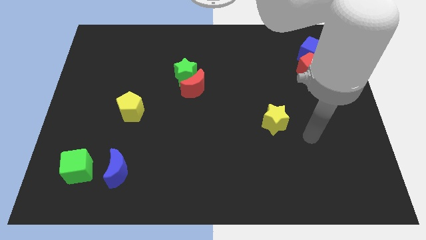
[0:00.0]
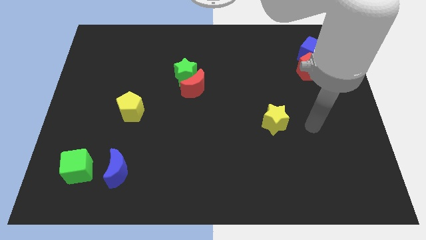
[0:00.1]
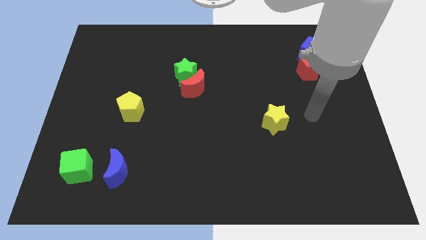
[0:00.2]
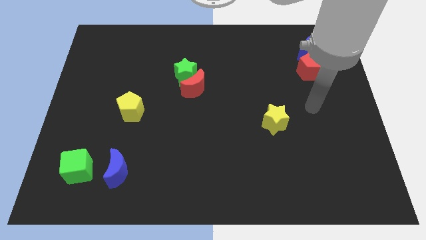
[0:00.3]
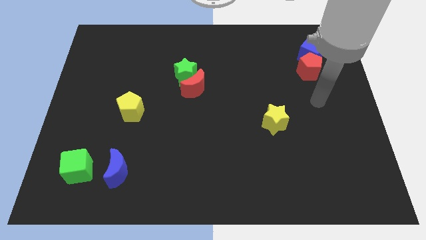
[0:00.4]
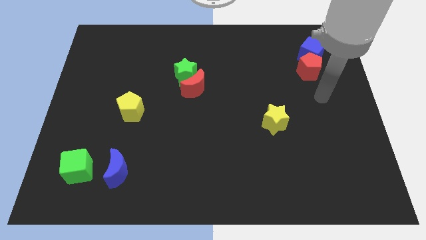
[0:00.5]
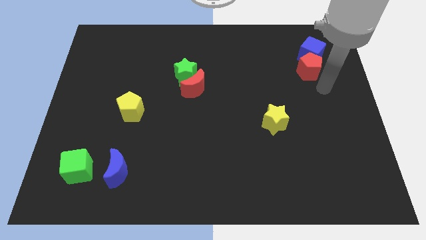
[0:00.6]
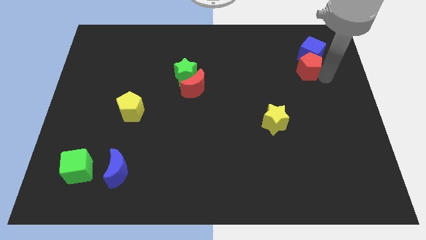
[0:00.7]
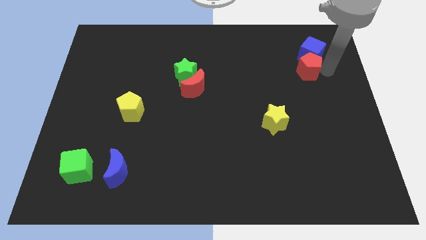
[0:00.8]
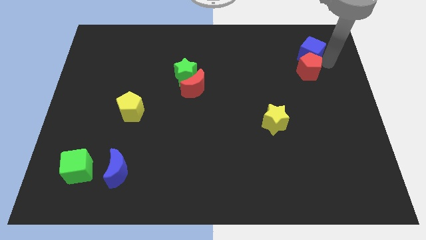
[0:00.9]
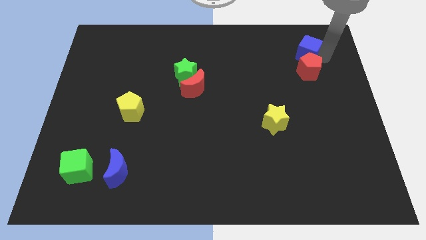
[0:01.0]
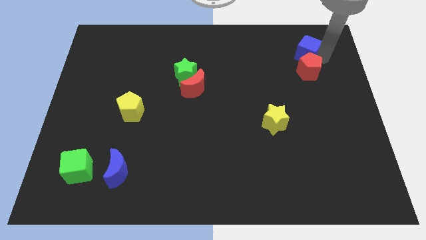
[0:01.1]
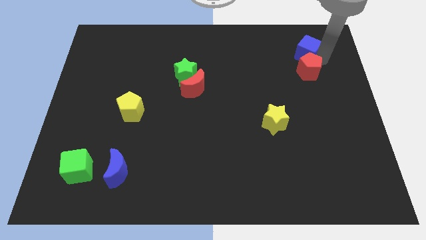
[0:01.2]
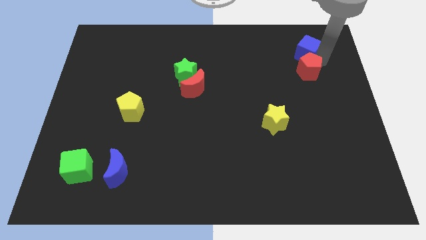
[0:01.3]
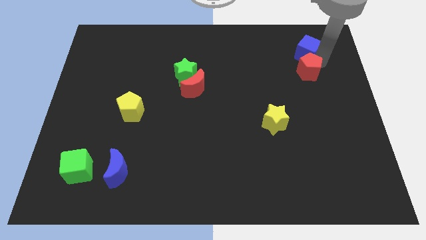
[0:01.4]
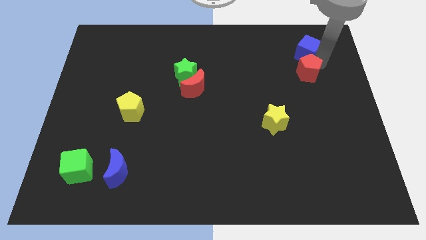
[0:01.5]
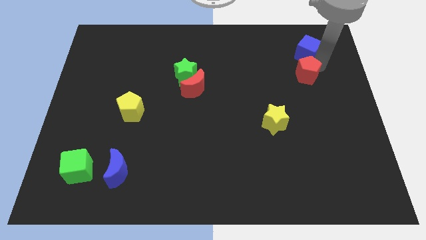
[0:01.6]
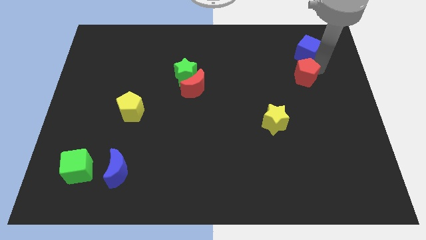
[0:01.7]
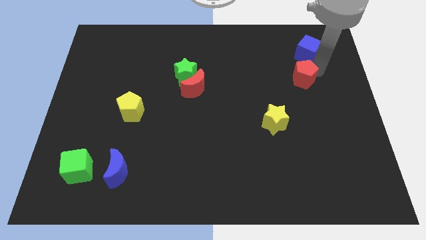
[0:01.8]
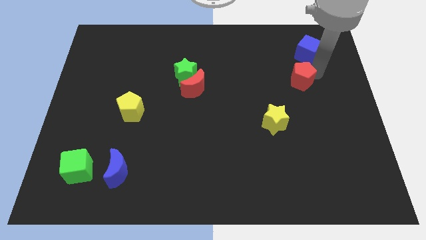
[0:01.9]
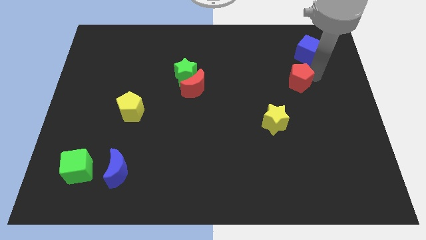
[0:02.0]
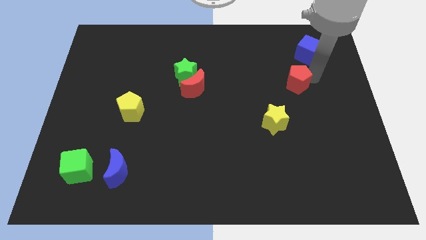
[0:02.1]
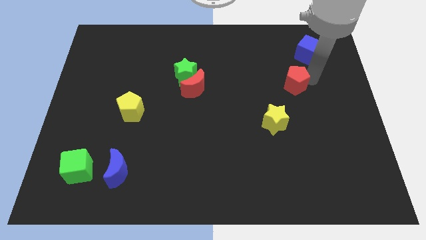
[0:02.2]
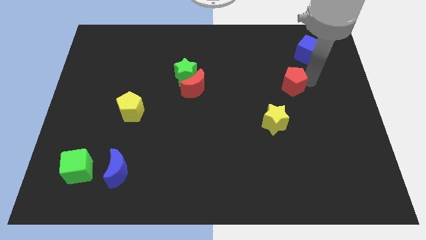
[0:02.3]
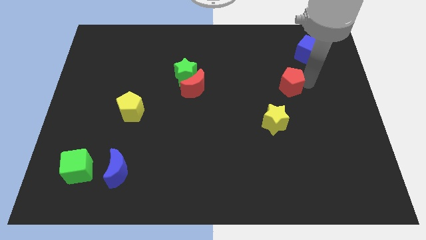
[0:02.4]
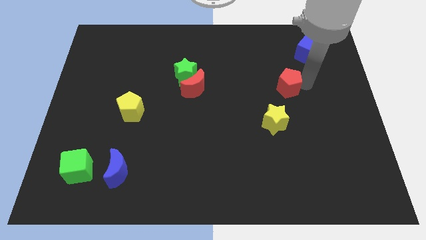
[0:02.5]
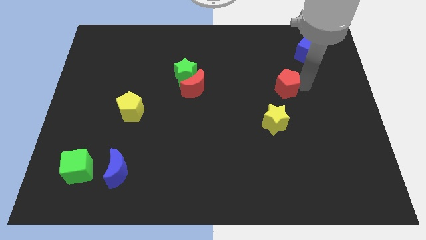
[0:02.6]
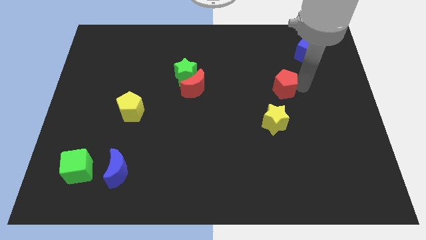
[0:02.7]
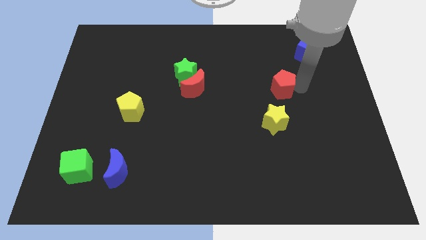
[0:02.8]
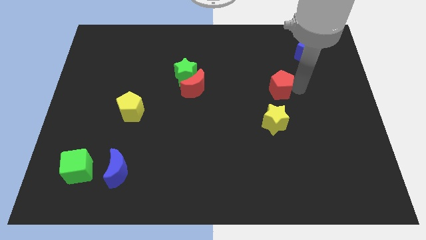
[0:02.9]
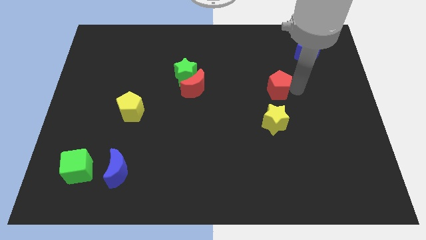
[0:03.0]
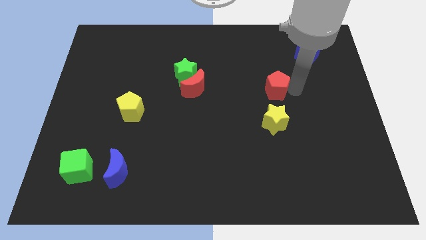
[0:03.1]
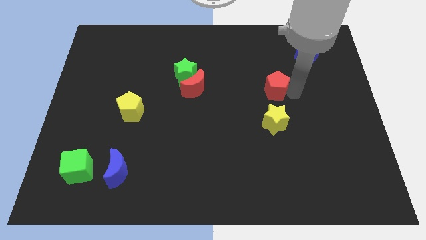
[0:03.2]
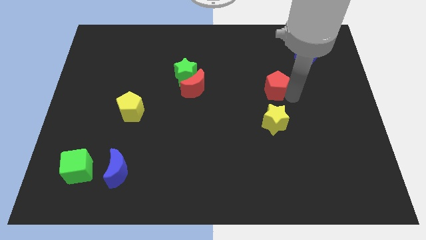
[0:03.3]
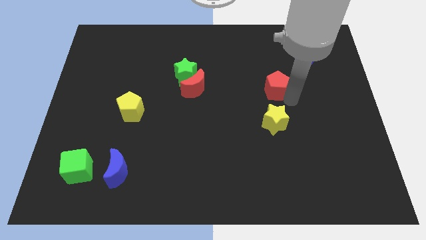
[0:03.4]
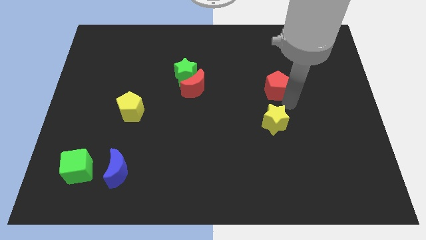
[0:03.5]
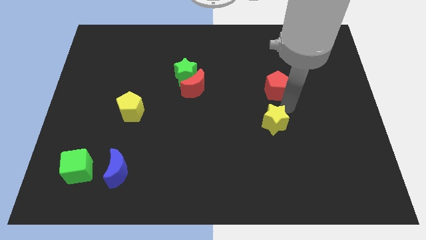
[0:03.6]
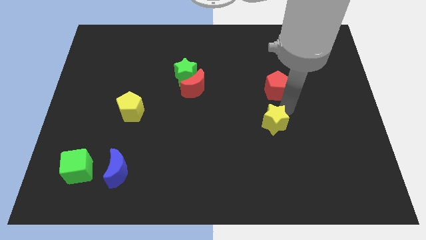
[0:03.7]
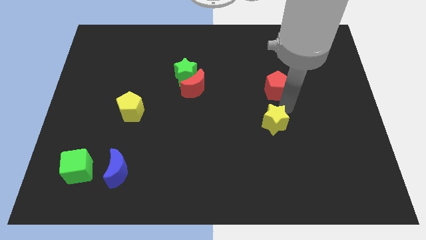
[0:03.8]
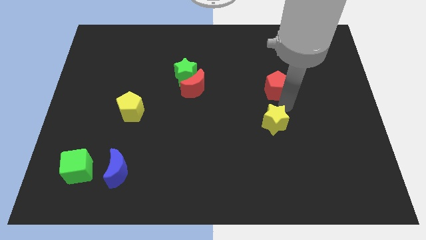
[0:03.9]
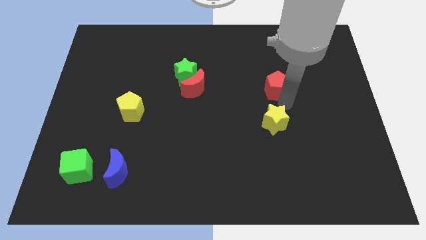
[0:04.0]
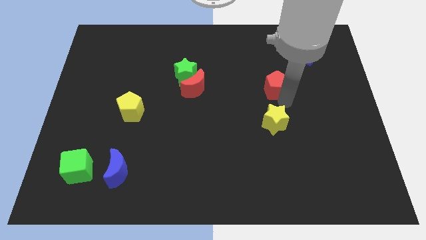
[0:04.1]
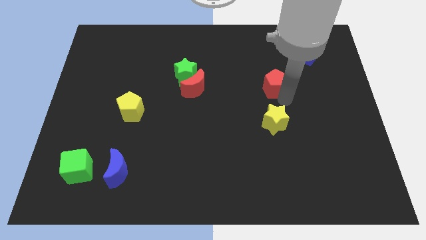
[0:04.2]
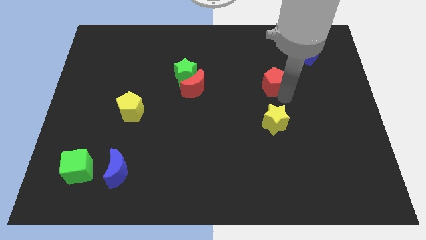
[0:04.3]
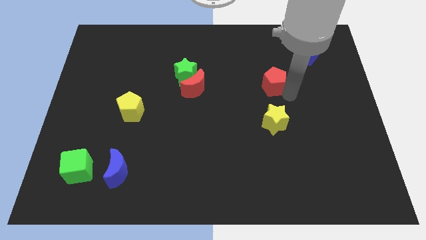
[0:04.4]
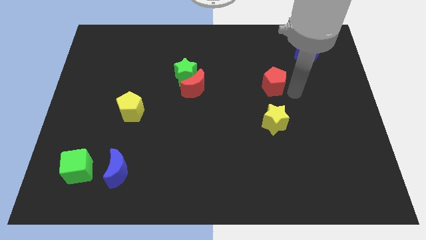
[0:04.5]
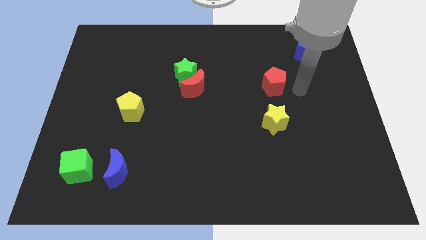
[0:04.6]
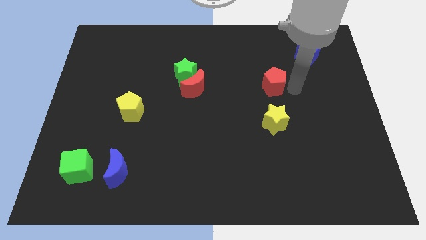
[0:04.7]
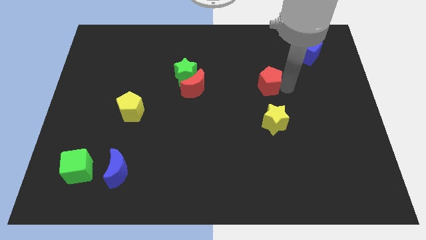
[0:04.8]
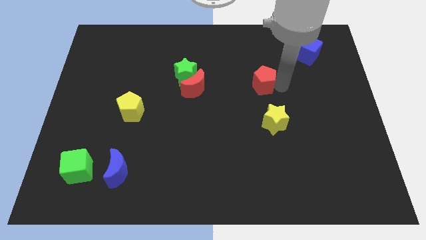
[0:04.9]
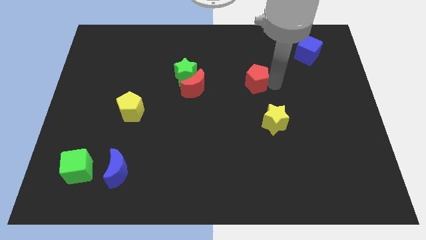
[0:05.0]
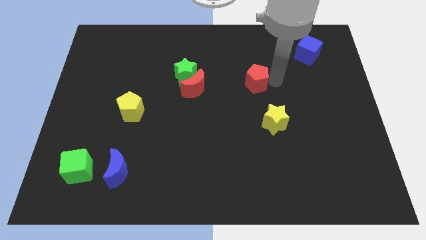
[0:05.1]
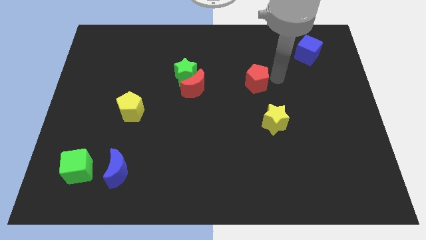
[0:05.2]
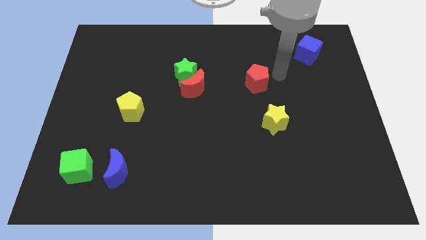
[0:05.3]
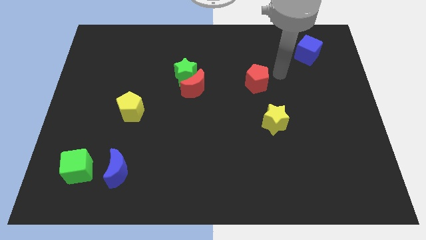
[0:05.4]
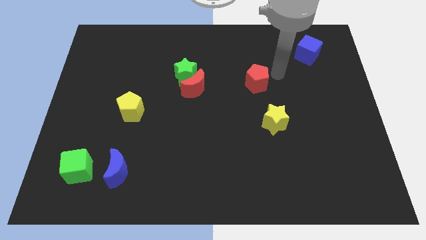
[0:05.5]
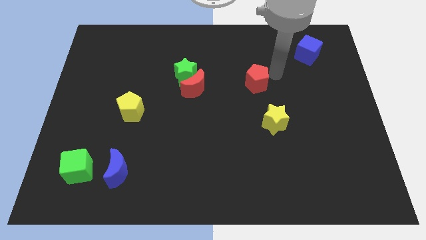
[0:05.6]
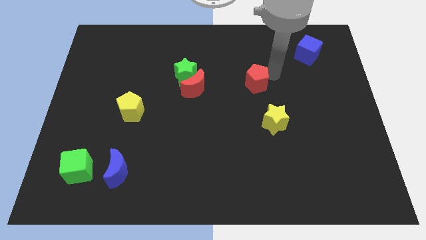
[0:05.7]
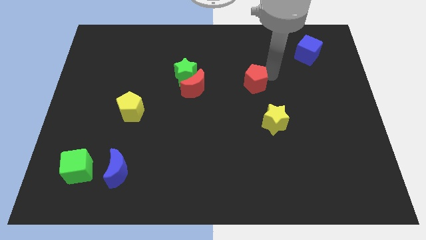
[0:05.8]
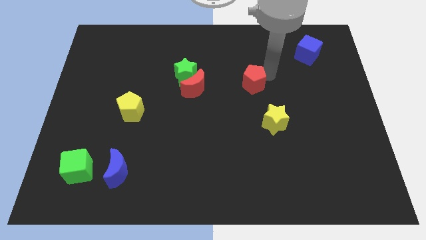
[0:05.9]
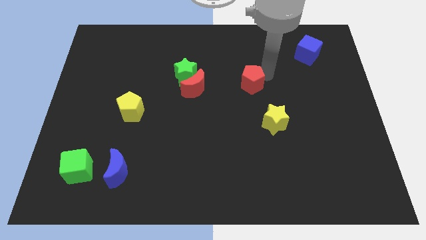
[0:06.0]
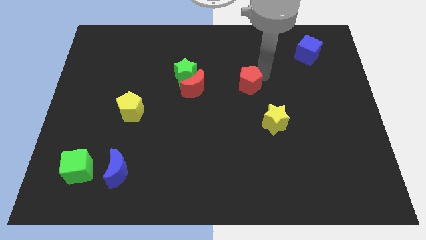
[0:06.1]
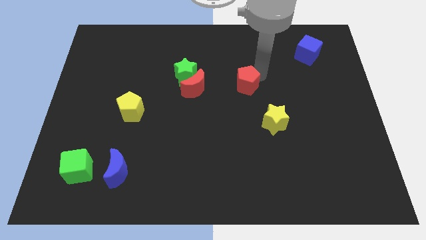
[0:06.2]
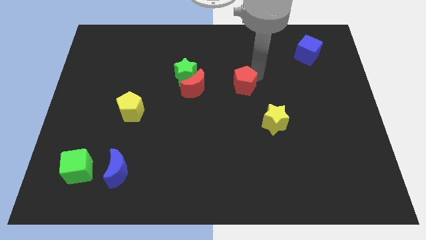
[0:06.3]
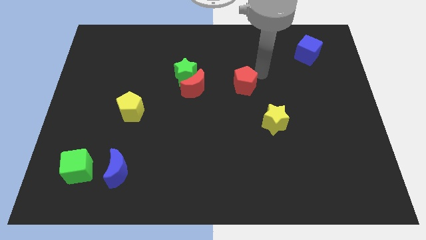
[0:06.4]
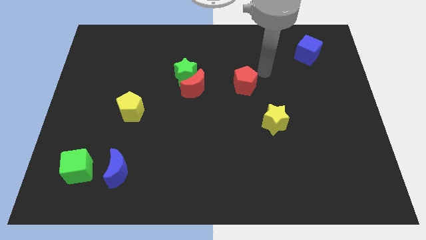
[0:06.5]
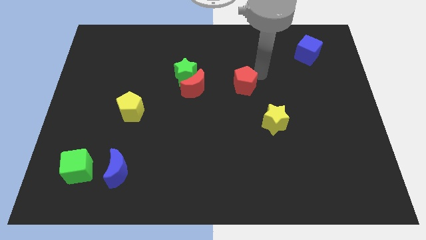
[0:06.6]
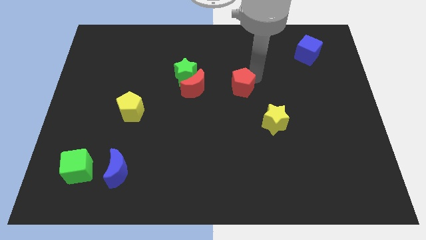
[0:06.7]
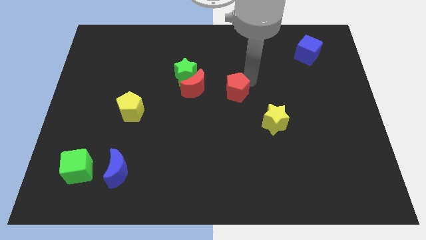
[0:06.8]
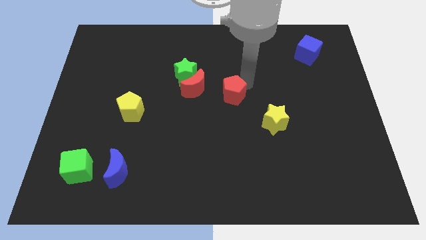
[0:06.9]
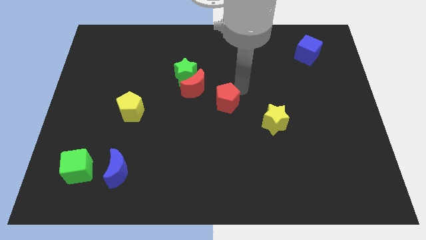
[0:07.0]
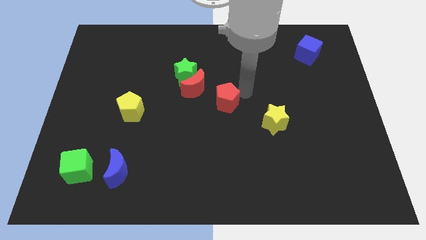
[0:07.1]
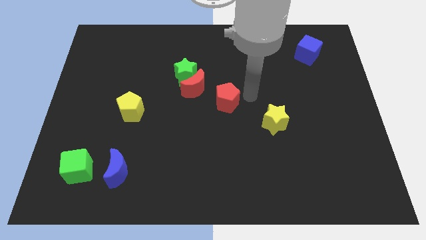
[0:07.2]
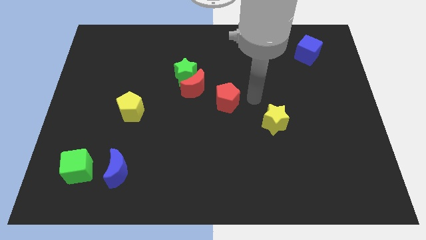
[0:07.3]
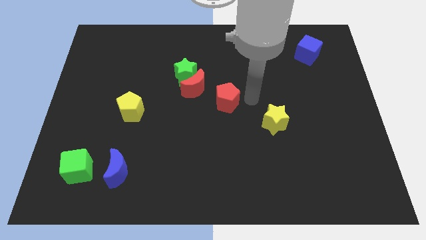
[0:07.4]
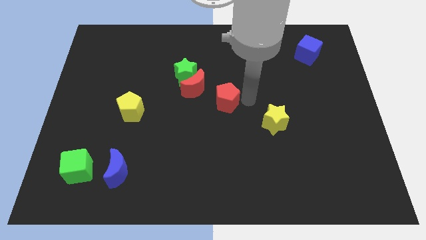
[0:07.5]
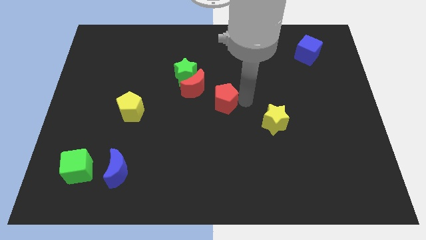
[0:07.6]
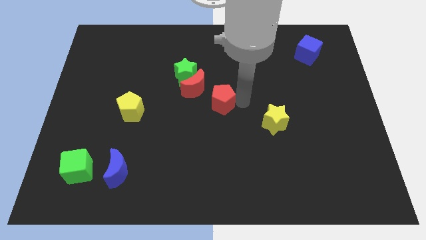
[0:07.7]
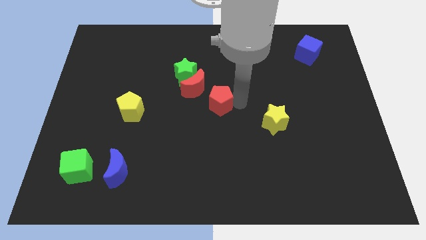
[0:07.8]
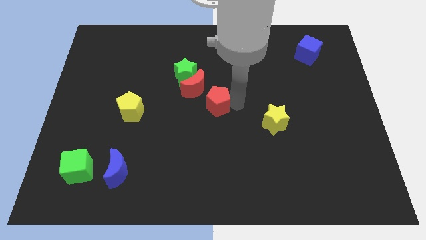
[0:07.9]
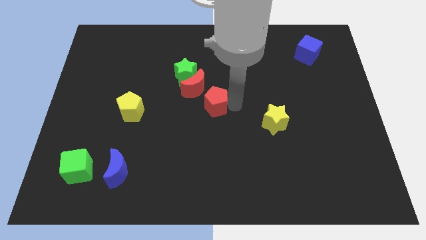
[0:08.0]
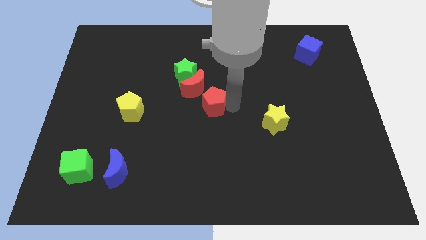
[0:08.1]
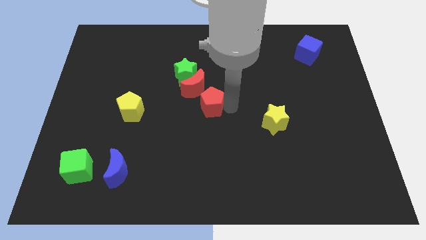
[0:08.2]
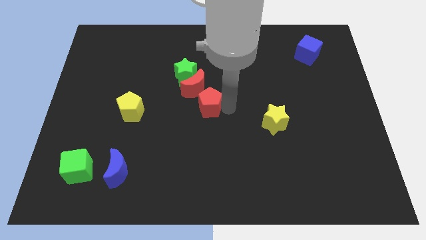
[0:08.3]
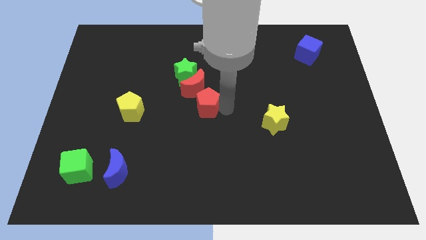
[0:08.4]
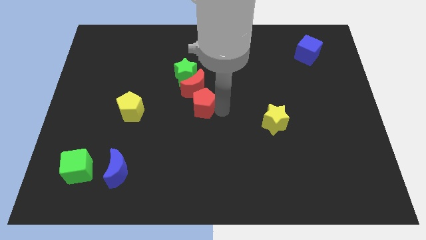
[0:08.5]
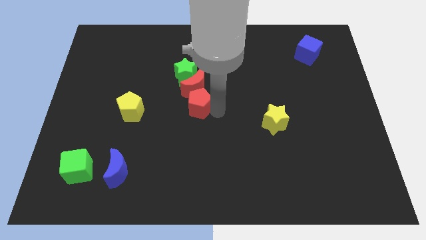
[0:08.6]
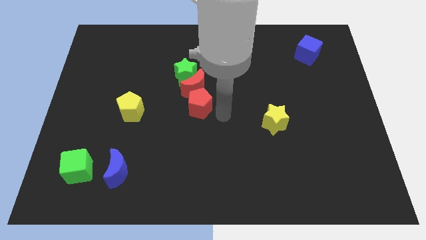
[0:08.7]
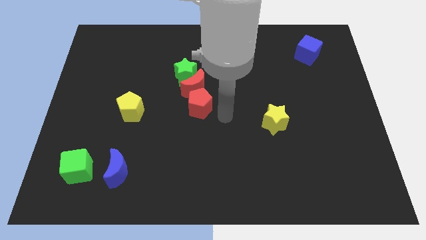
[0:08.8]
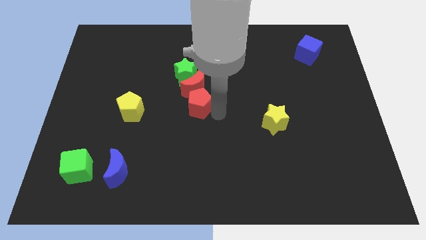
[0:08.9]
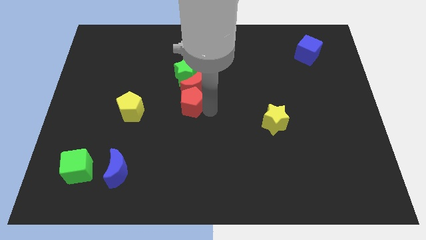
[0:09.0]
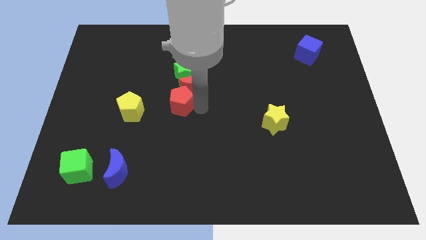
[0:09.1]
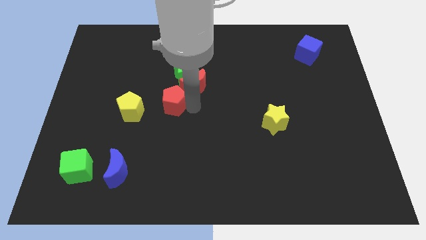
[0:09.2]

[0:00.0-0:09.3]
push the red pentagon diagonally down and to the left of the green star
